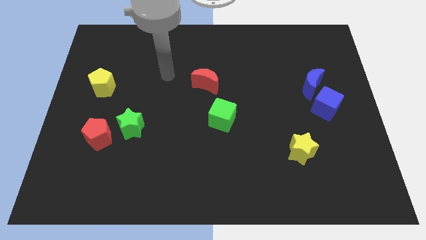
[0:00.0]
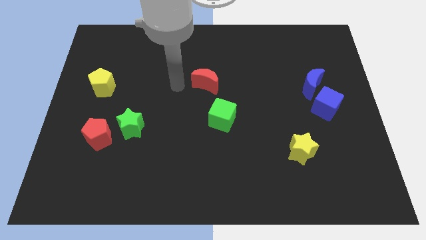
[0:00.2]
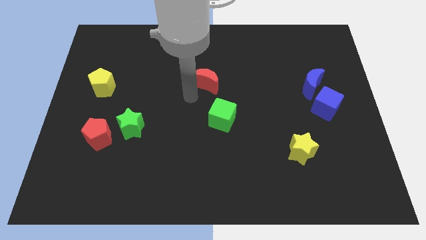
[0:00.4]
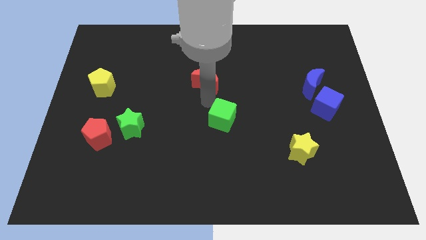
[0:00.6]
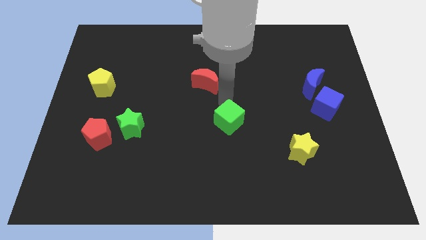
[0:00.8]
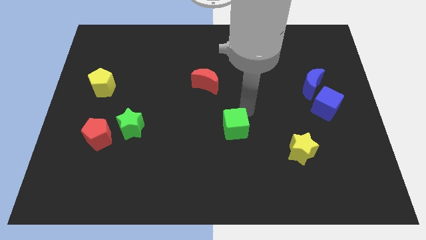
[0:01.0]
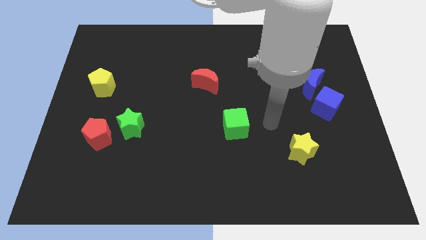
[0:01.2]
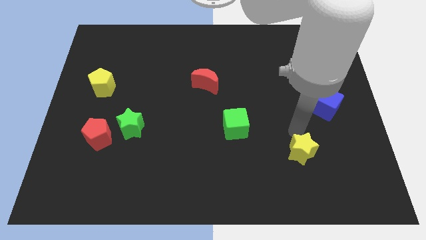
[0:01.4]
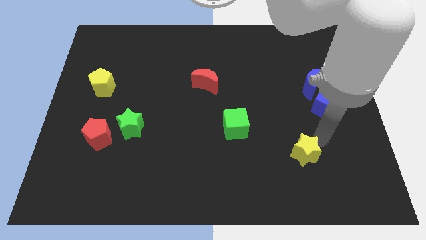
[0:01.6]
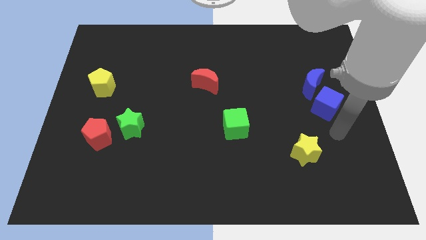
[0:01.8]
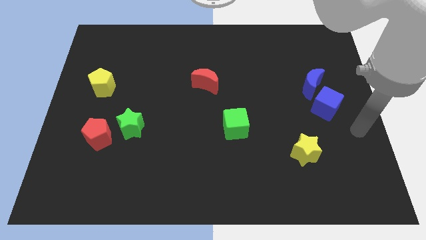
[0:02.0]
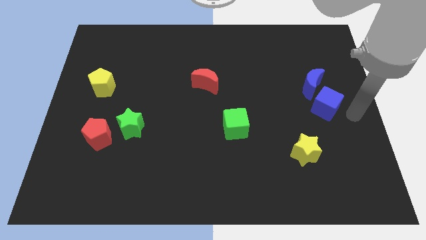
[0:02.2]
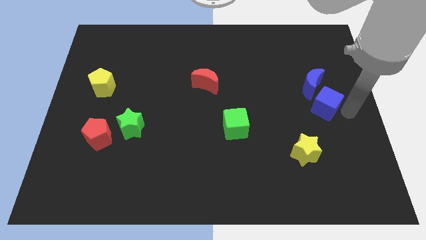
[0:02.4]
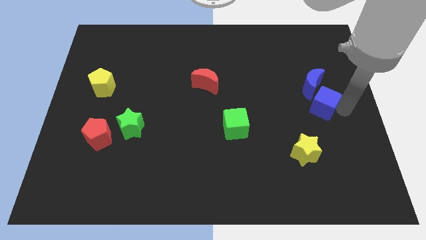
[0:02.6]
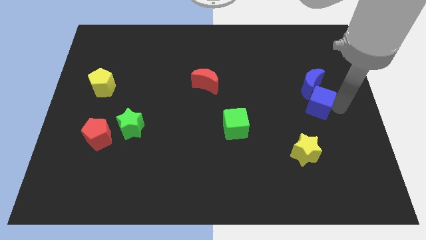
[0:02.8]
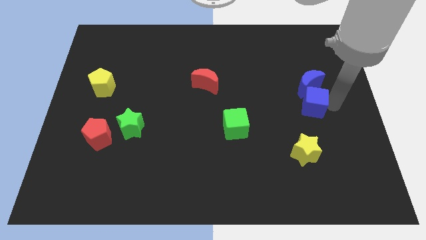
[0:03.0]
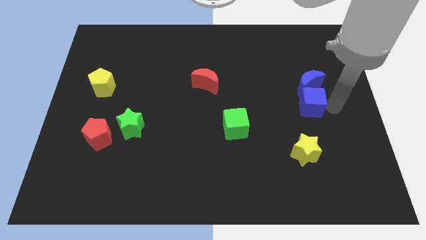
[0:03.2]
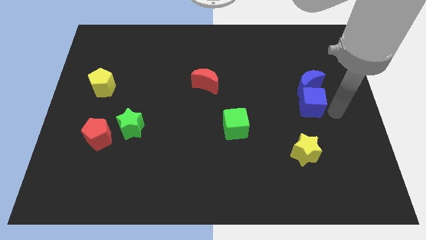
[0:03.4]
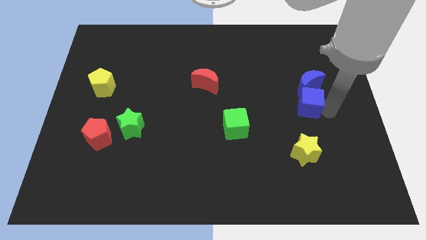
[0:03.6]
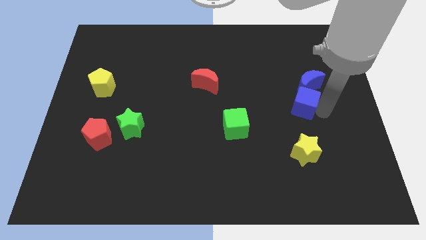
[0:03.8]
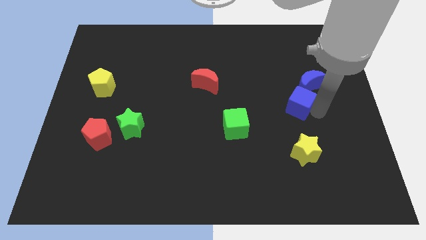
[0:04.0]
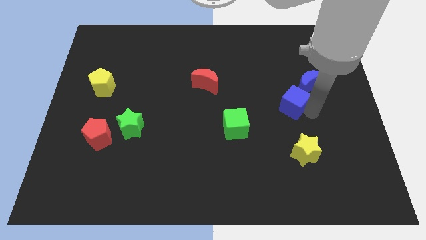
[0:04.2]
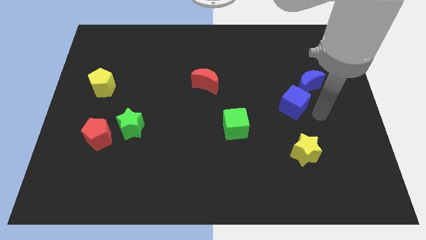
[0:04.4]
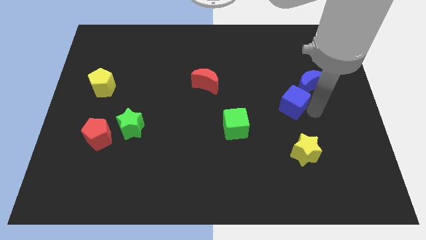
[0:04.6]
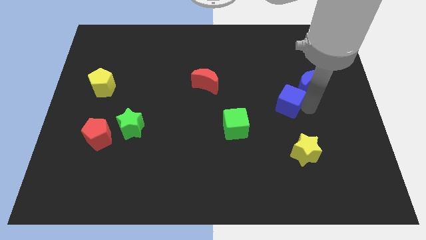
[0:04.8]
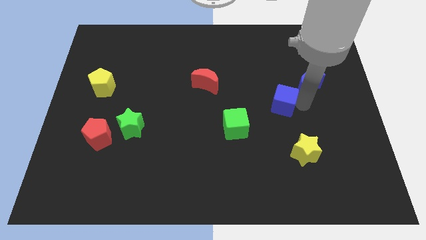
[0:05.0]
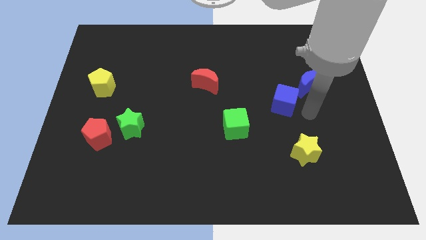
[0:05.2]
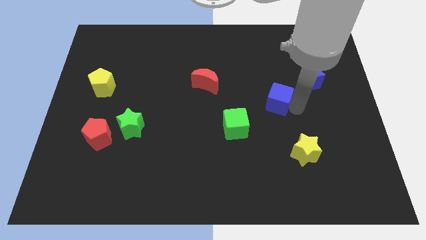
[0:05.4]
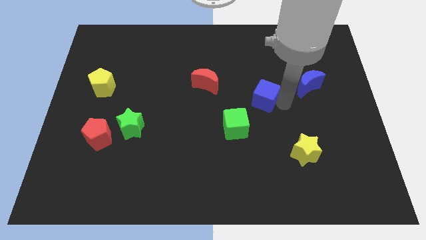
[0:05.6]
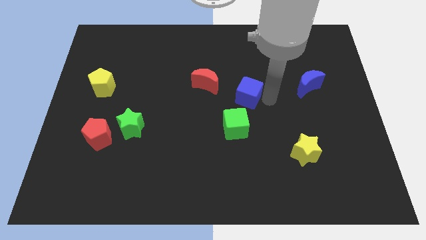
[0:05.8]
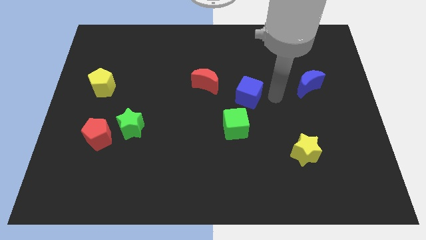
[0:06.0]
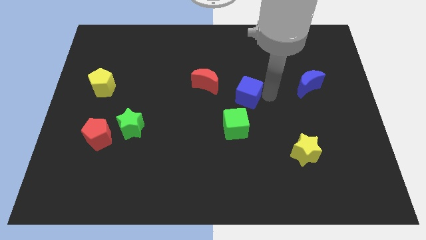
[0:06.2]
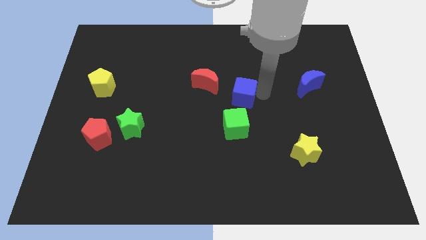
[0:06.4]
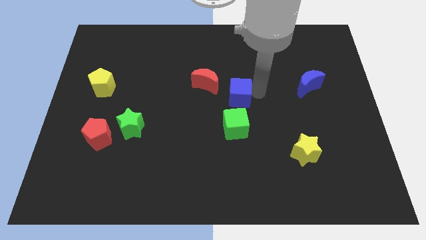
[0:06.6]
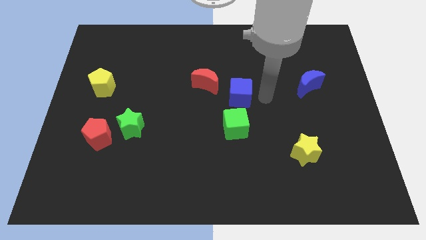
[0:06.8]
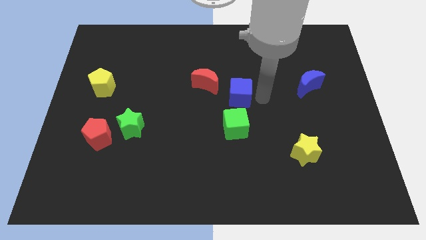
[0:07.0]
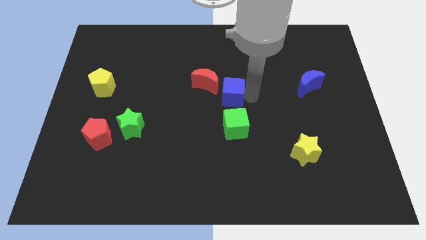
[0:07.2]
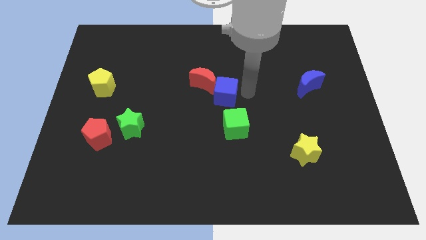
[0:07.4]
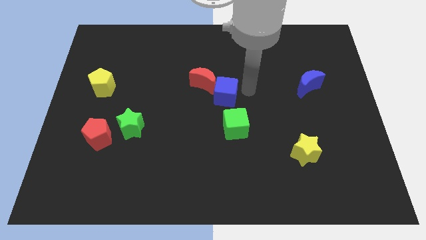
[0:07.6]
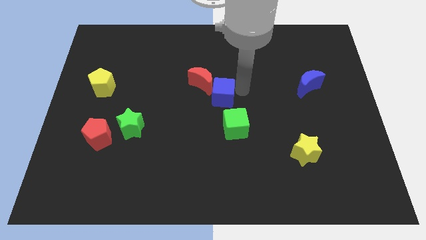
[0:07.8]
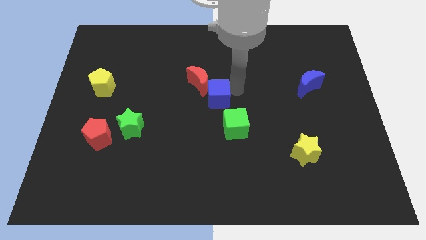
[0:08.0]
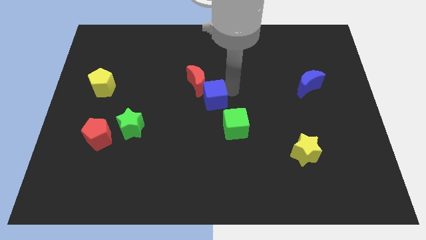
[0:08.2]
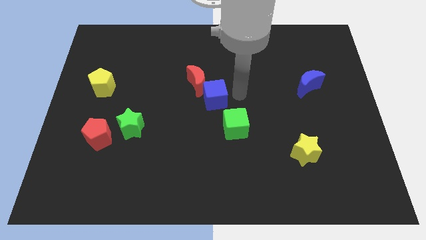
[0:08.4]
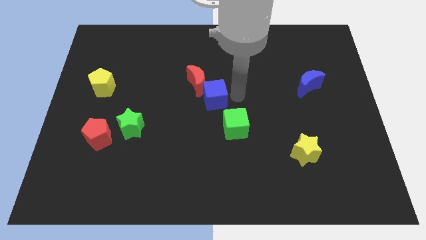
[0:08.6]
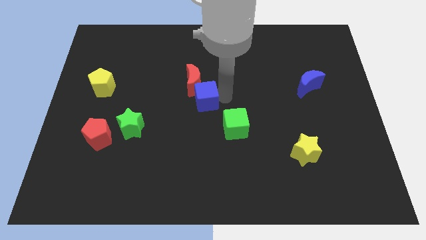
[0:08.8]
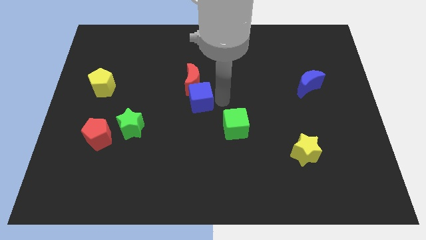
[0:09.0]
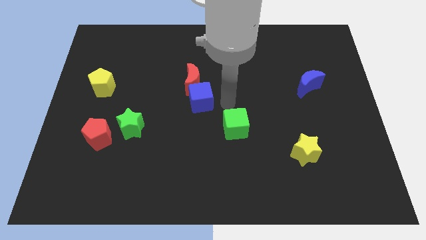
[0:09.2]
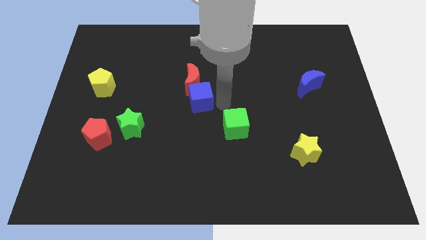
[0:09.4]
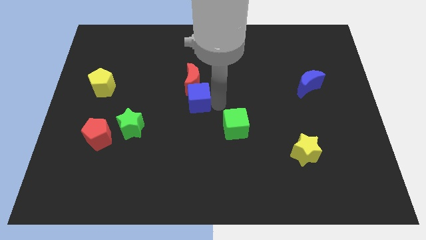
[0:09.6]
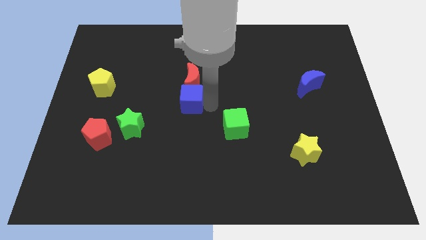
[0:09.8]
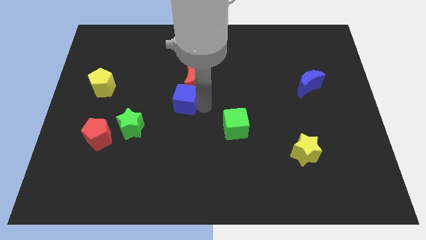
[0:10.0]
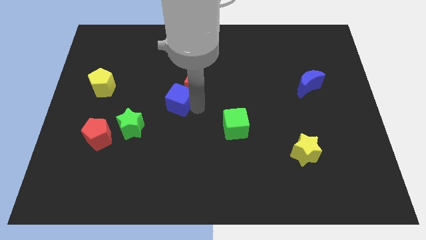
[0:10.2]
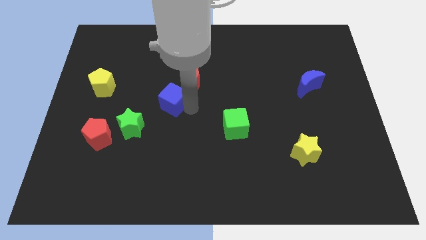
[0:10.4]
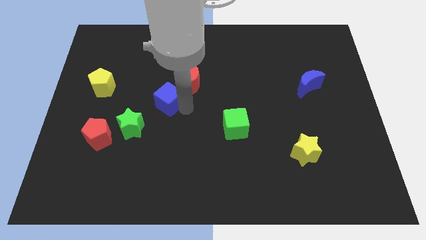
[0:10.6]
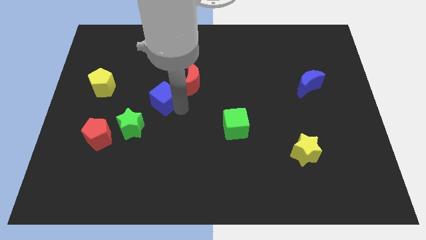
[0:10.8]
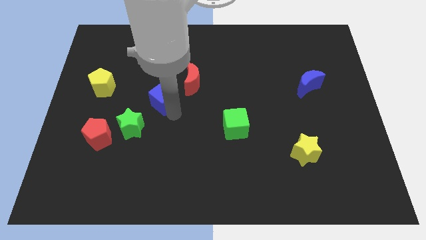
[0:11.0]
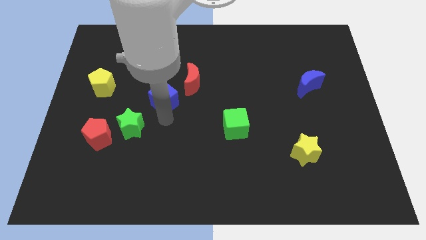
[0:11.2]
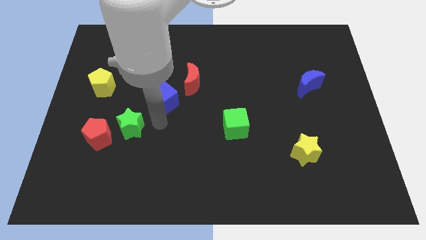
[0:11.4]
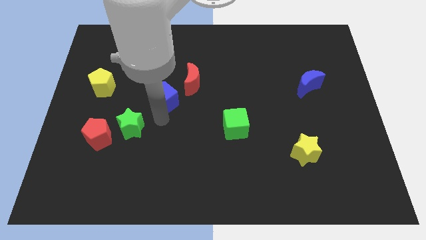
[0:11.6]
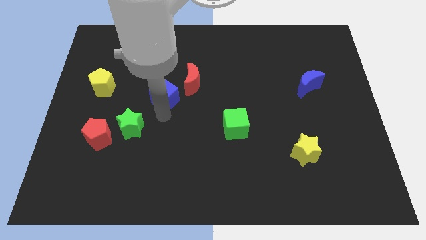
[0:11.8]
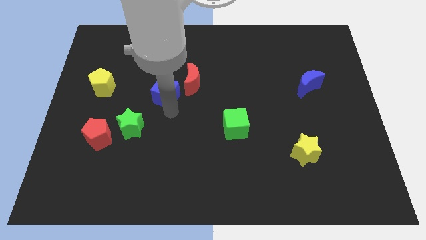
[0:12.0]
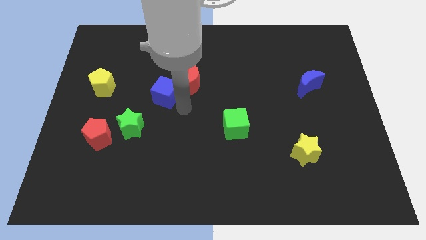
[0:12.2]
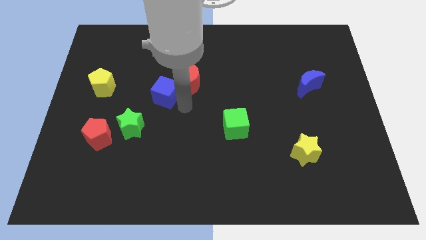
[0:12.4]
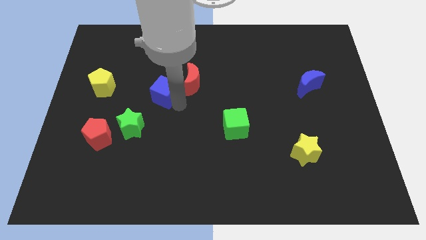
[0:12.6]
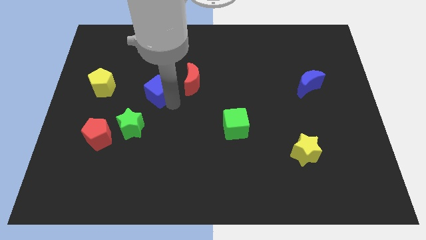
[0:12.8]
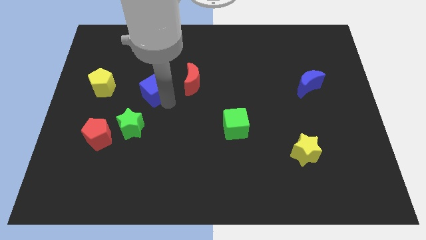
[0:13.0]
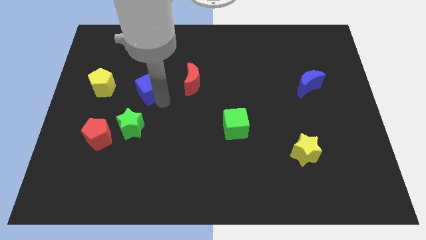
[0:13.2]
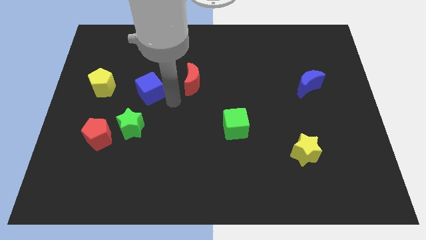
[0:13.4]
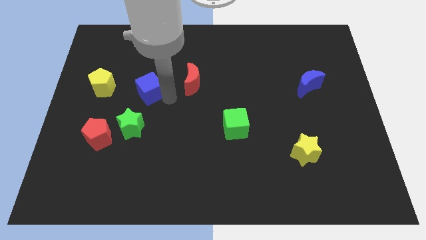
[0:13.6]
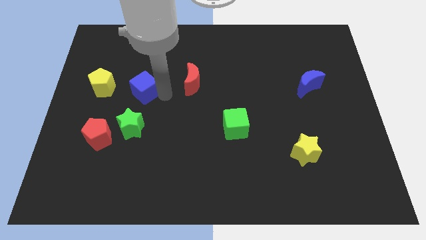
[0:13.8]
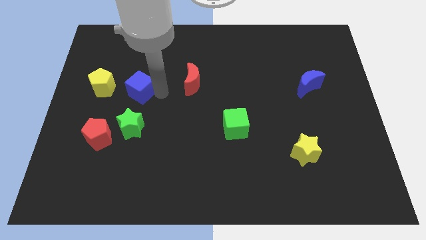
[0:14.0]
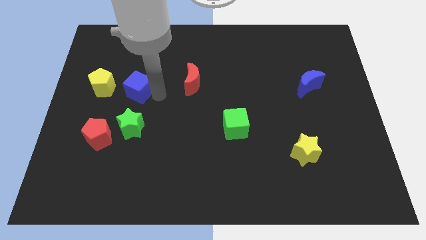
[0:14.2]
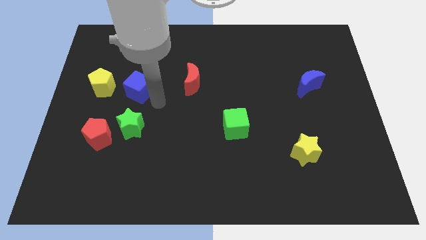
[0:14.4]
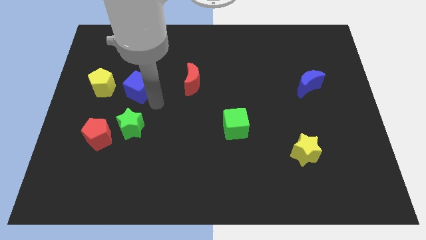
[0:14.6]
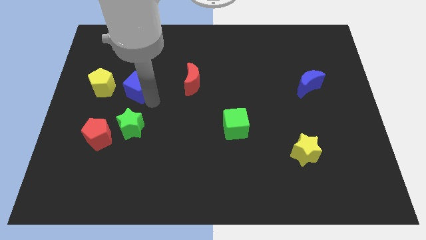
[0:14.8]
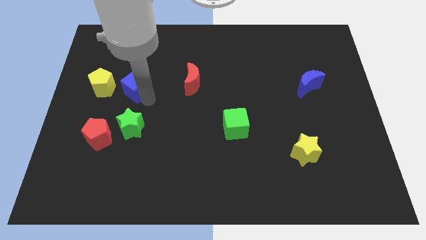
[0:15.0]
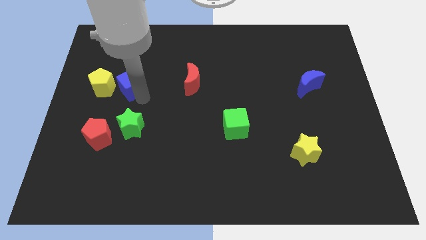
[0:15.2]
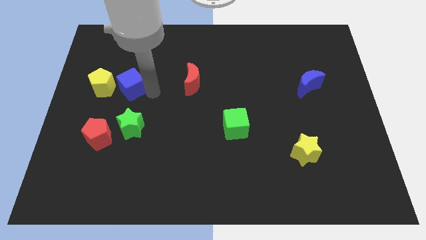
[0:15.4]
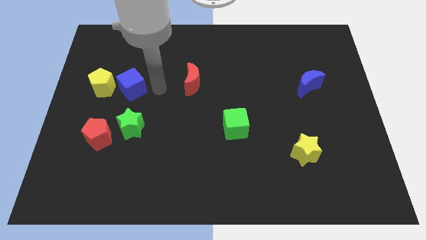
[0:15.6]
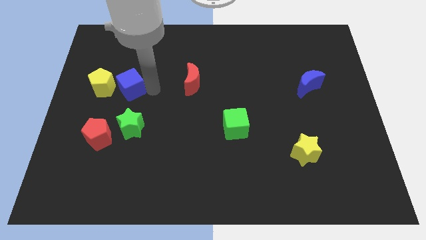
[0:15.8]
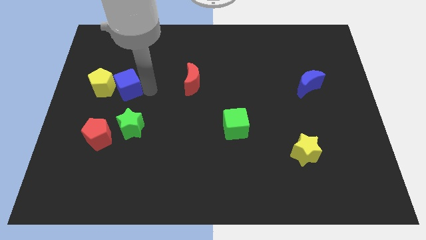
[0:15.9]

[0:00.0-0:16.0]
move the blue cube next to the yellow pentagon
